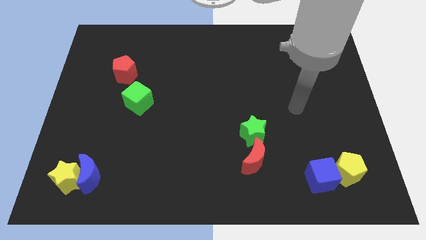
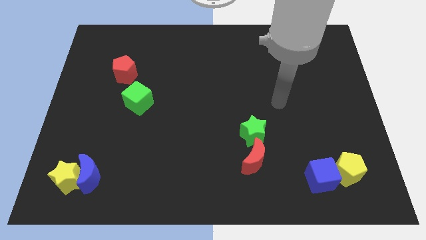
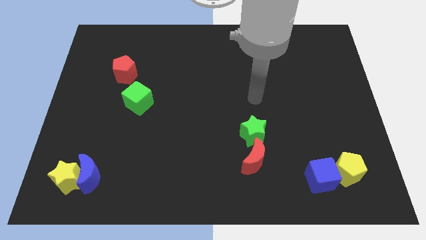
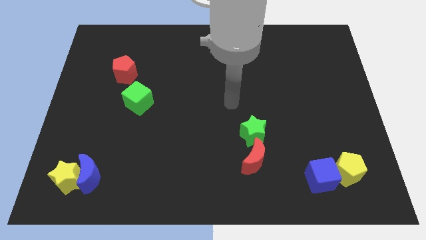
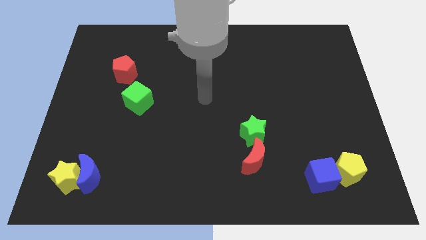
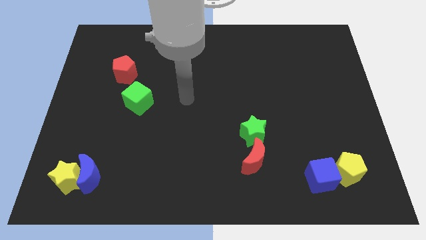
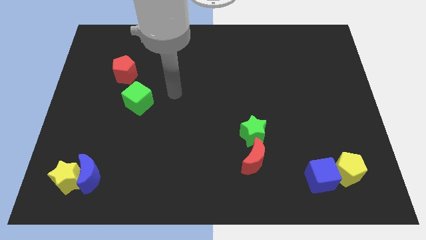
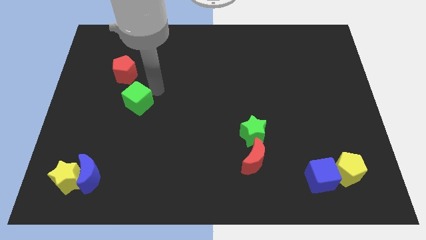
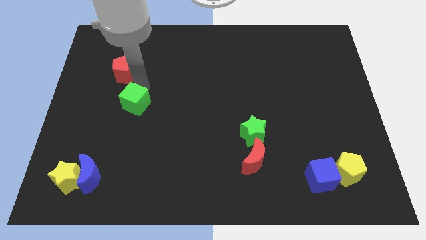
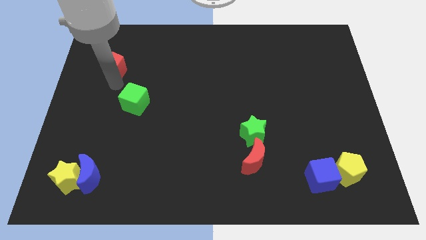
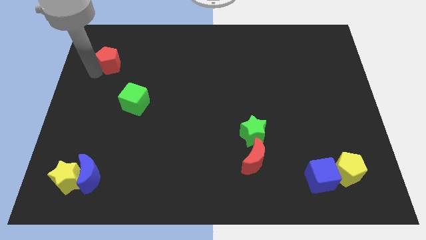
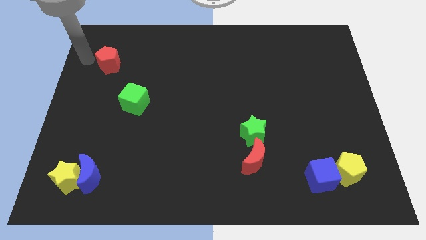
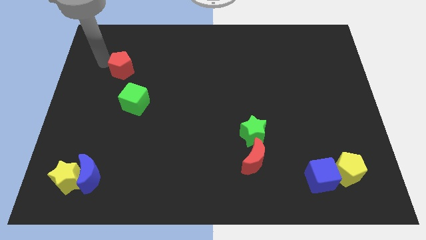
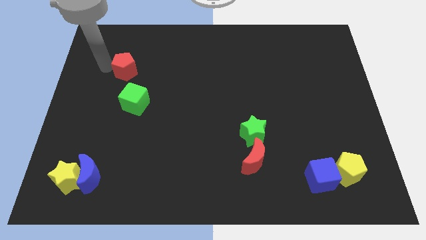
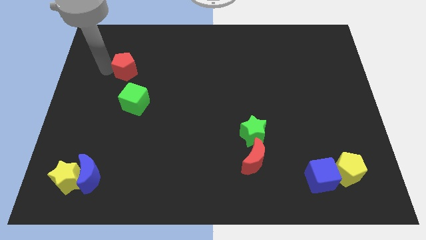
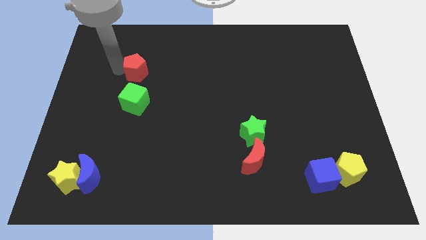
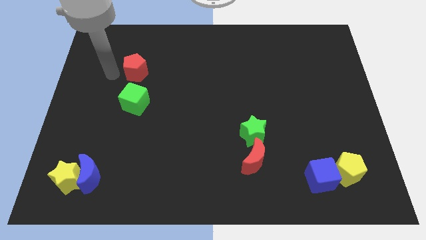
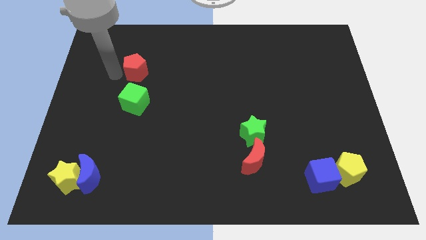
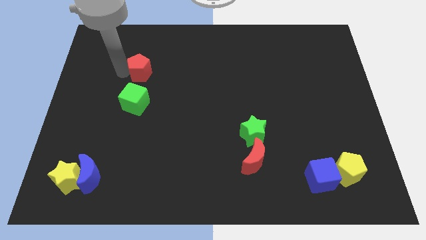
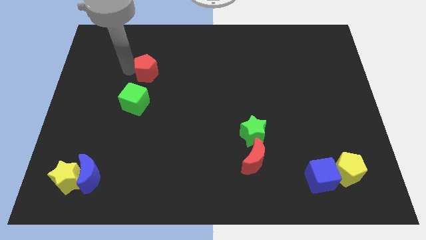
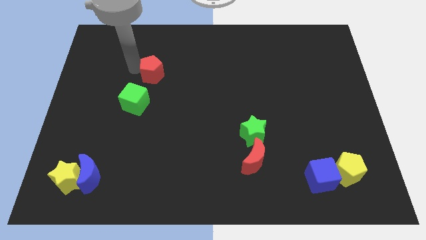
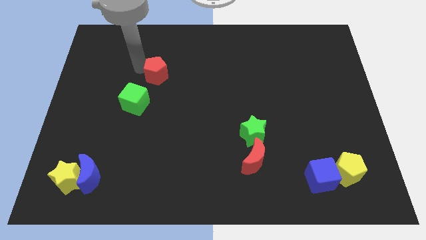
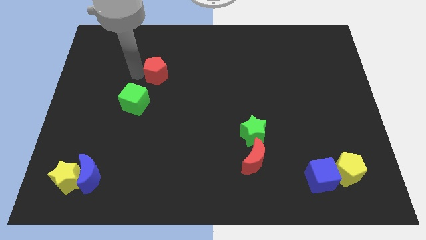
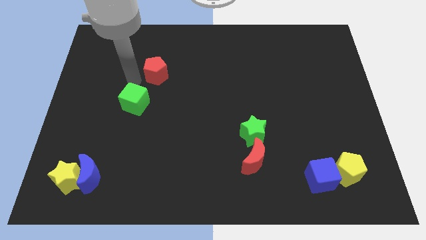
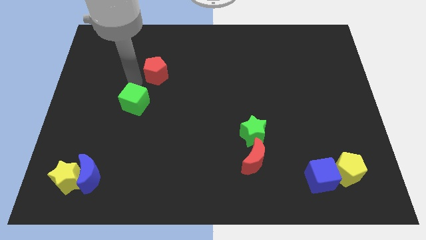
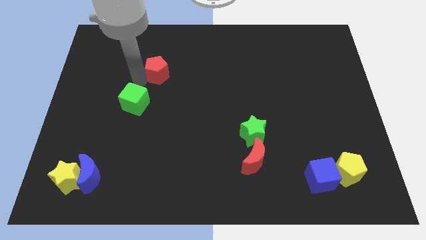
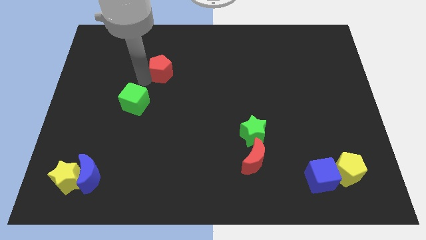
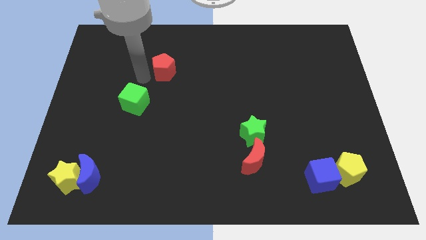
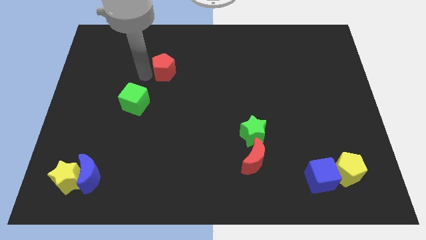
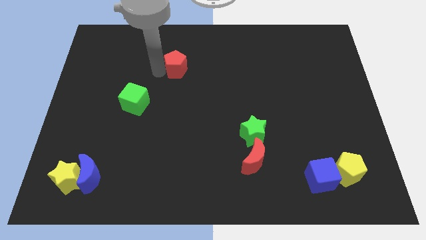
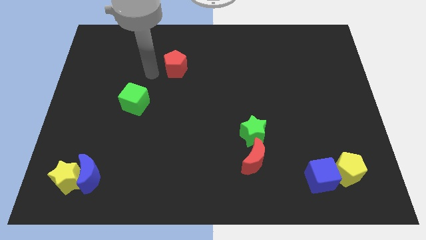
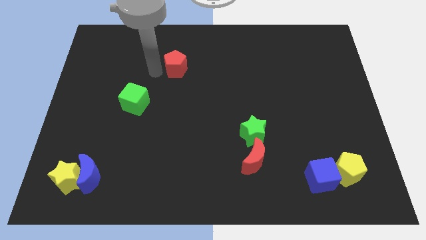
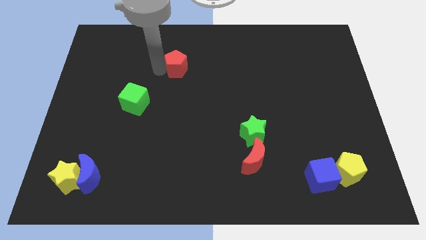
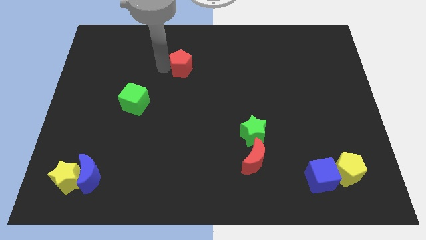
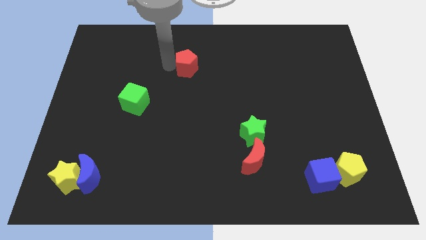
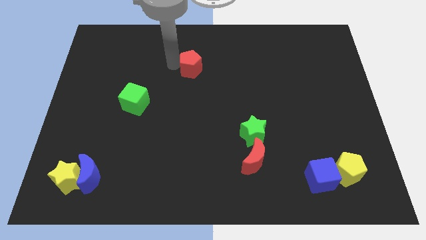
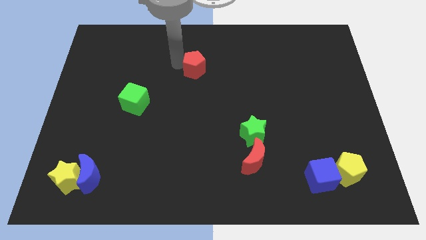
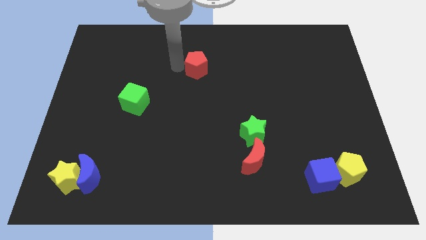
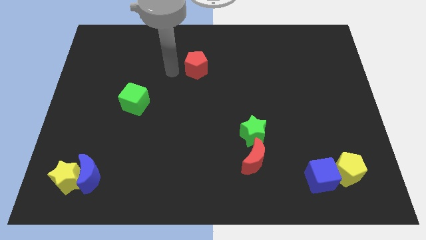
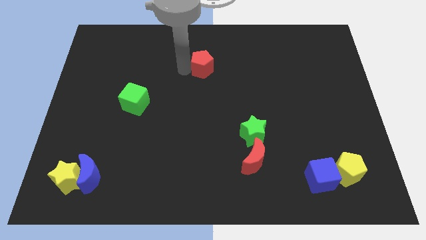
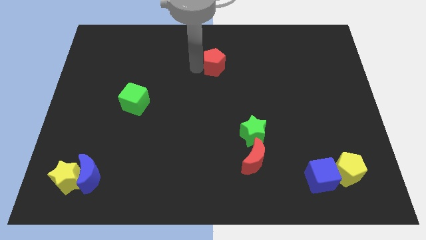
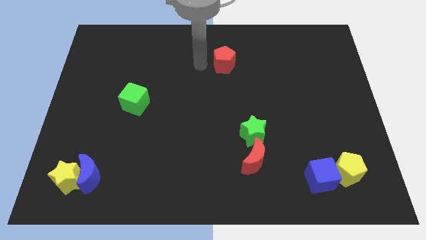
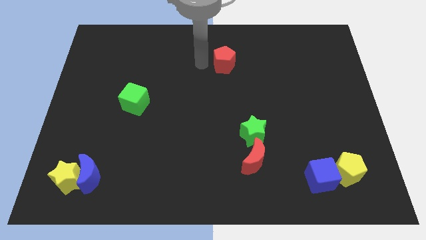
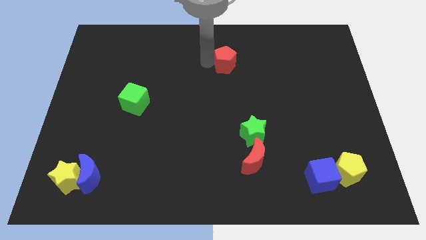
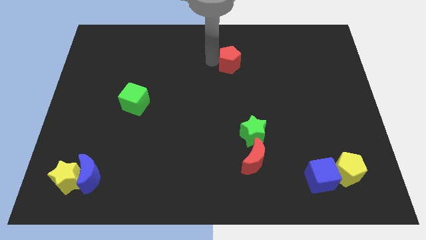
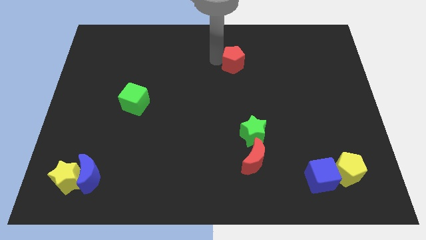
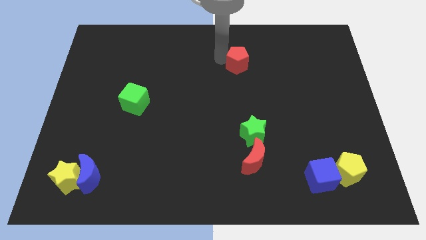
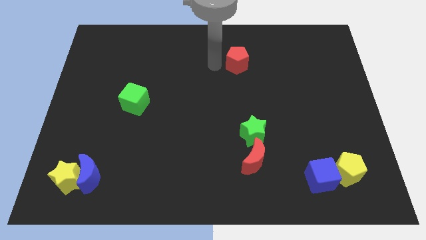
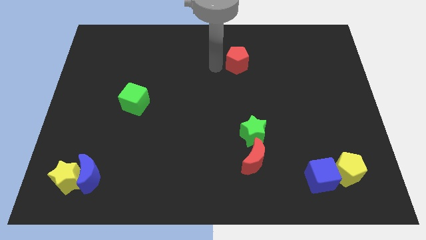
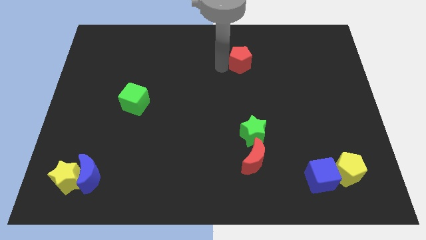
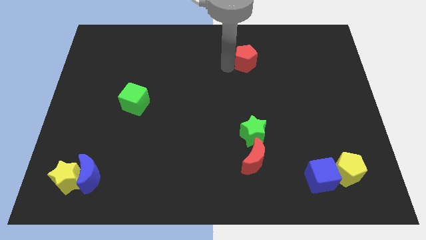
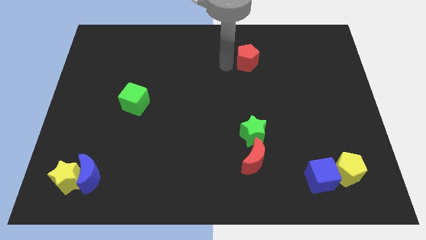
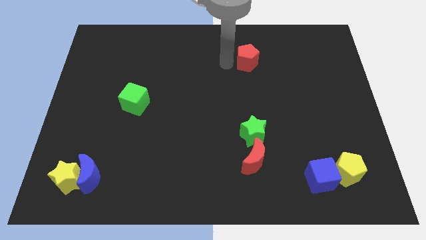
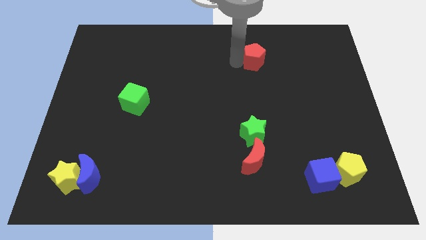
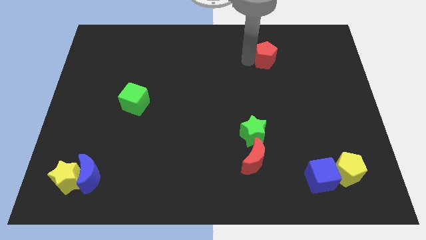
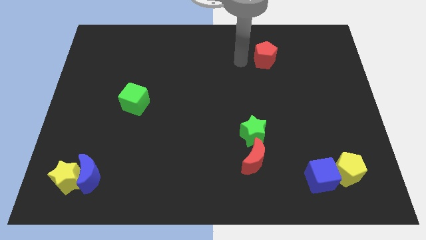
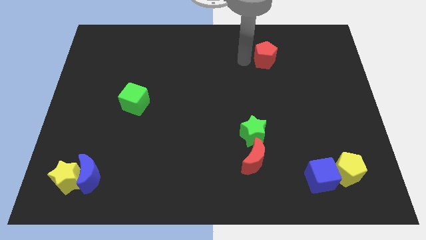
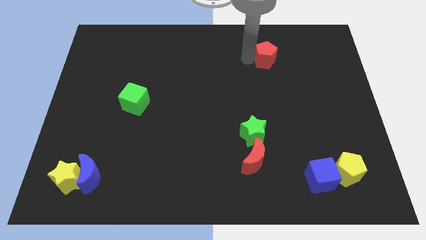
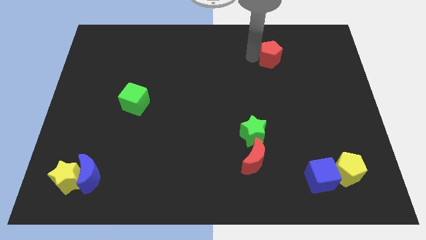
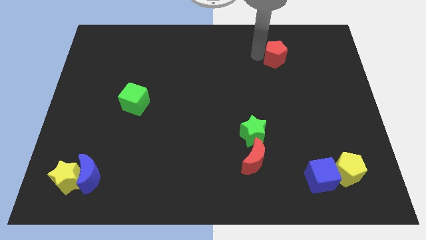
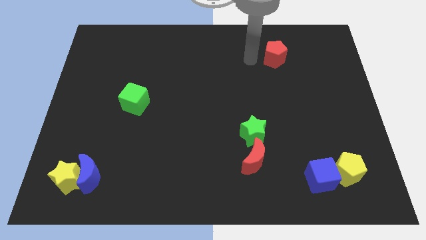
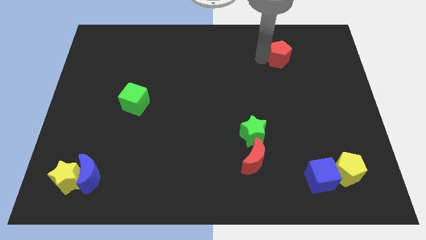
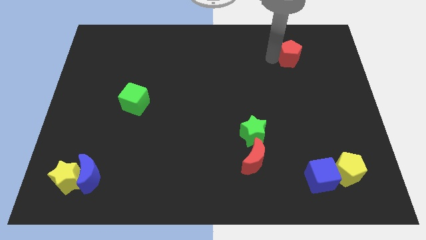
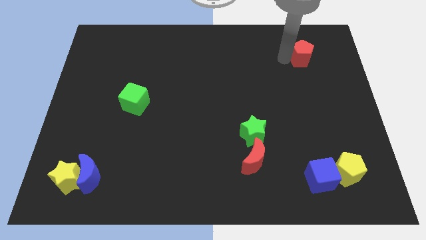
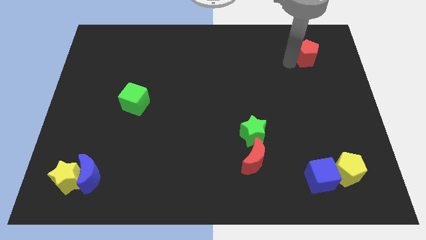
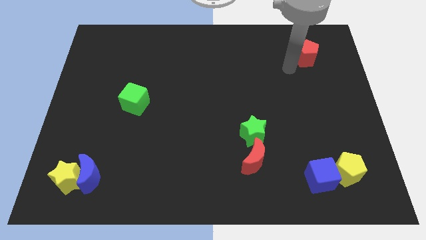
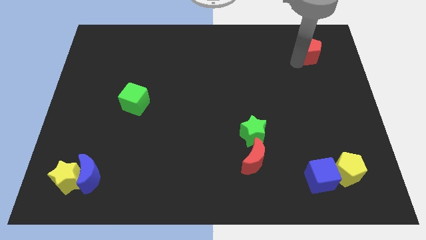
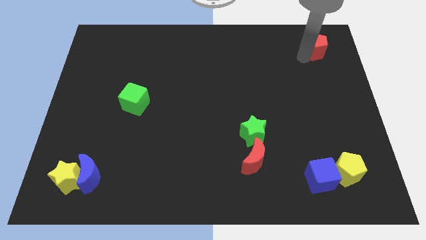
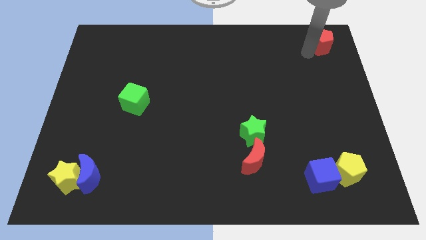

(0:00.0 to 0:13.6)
push the red pentagon to the upper right corner
